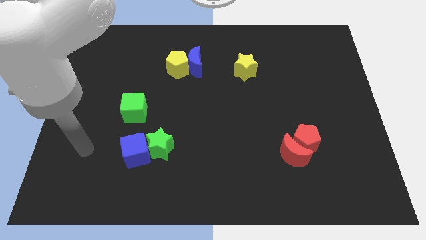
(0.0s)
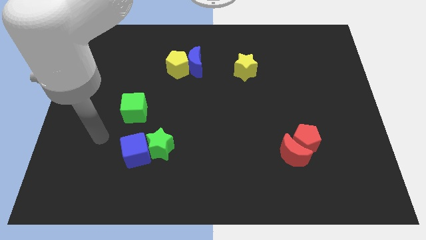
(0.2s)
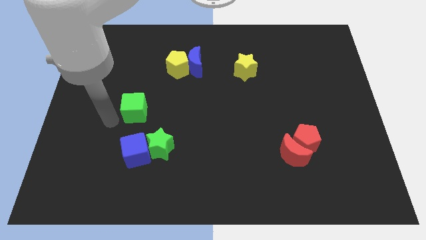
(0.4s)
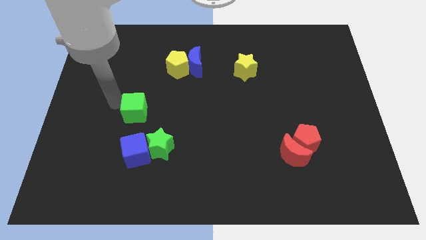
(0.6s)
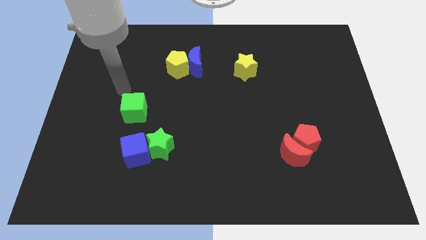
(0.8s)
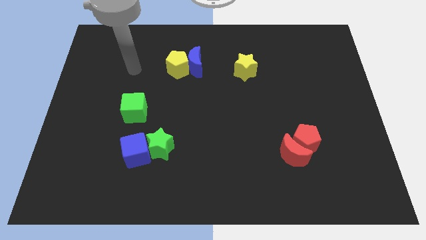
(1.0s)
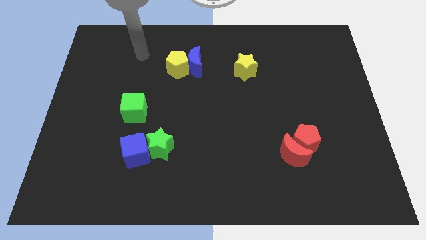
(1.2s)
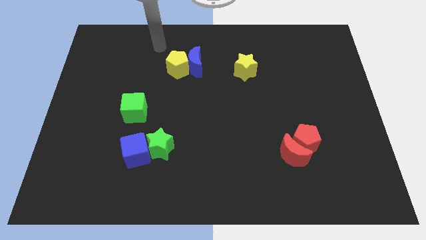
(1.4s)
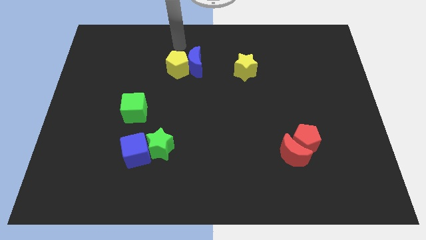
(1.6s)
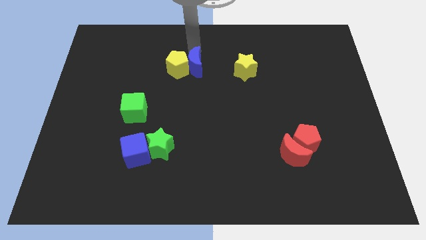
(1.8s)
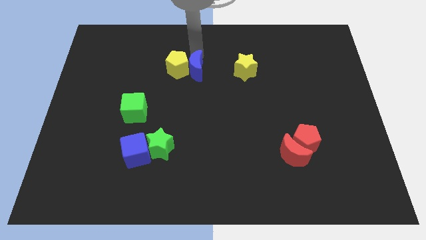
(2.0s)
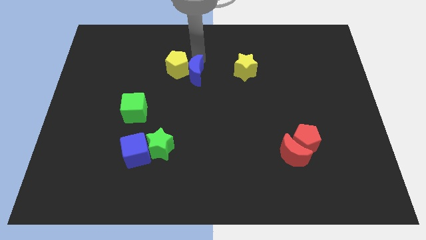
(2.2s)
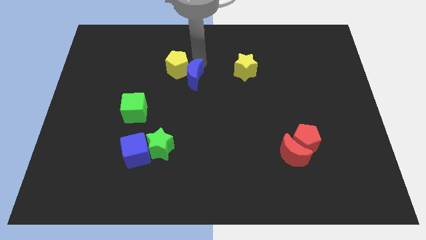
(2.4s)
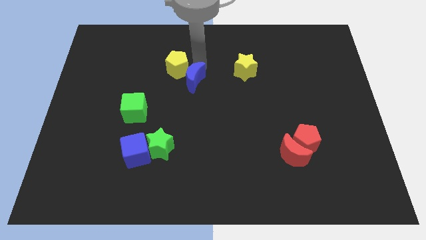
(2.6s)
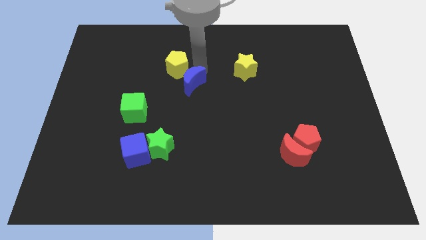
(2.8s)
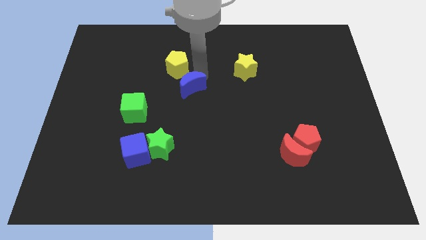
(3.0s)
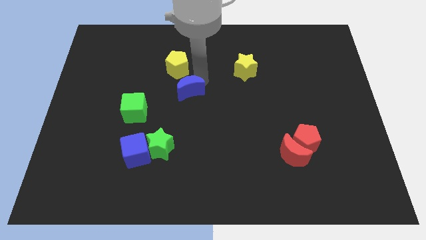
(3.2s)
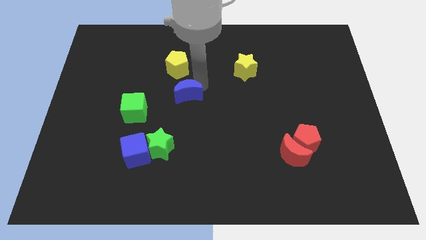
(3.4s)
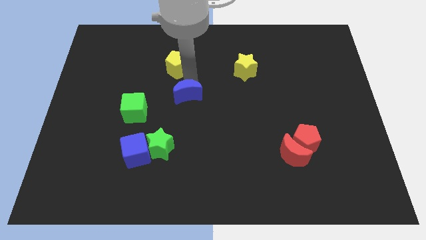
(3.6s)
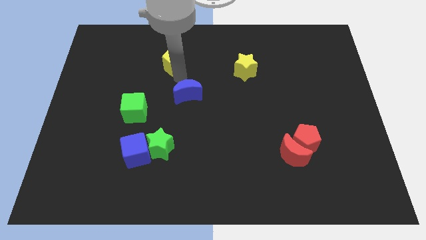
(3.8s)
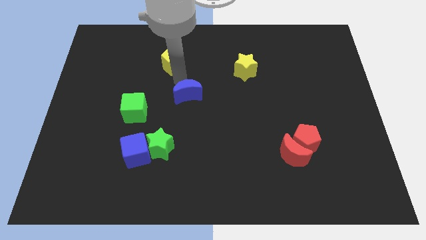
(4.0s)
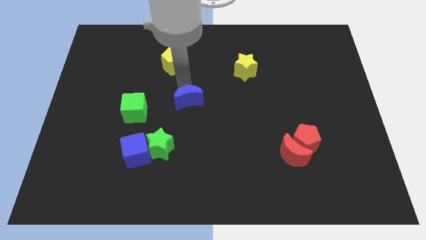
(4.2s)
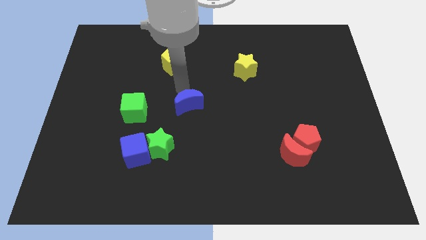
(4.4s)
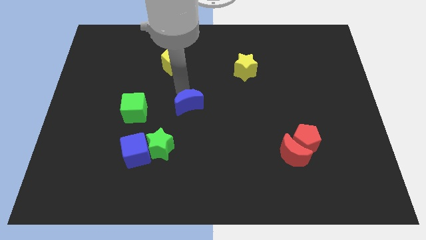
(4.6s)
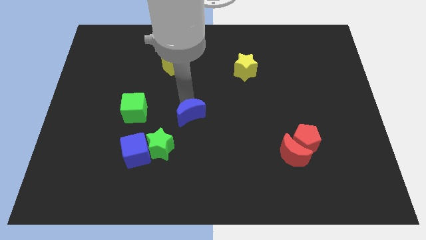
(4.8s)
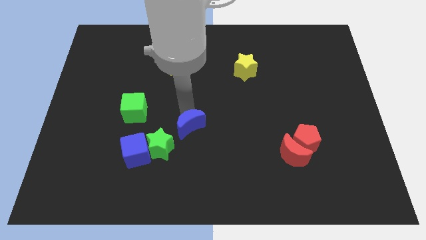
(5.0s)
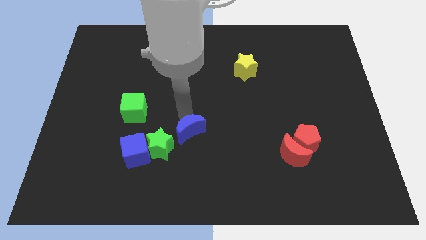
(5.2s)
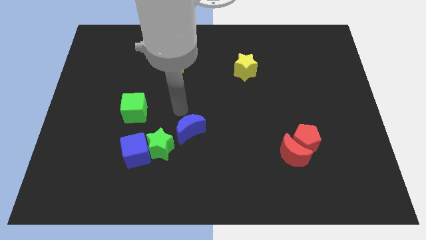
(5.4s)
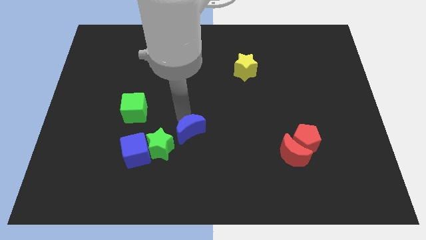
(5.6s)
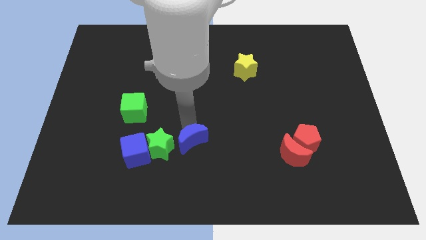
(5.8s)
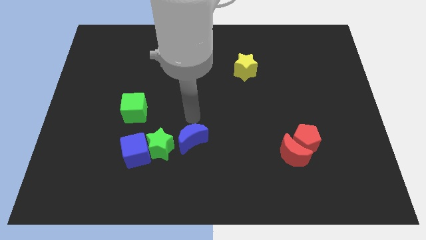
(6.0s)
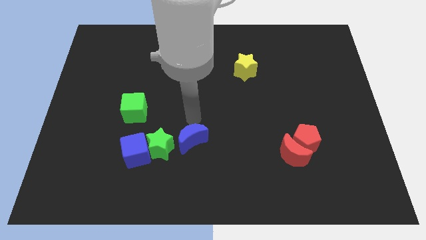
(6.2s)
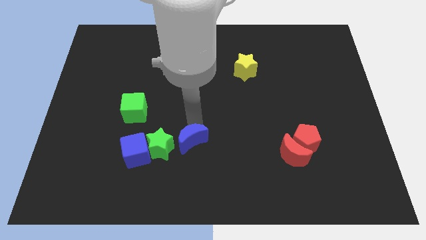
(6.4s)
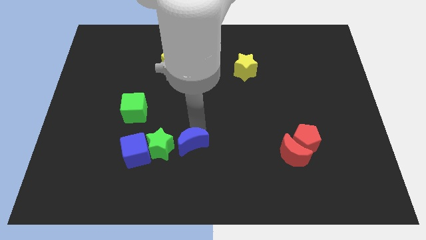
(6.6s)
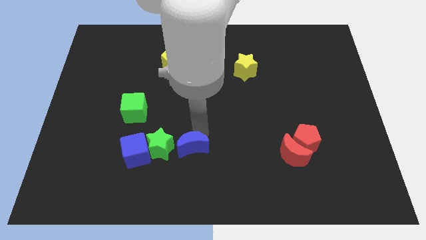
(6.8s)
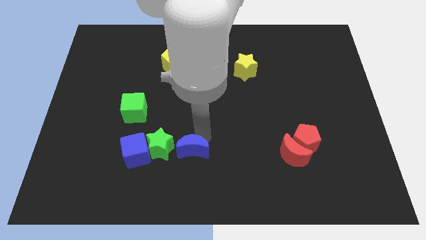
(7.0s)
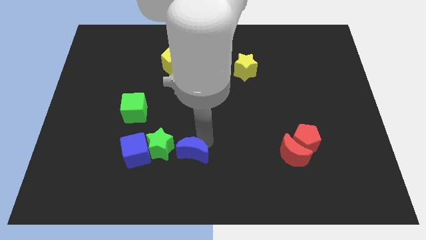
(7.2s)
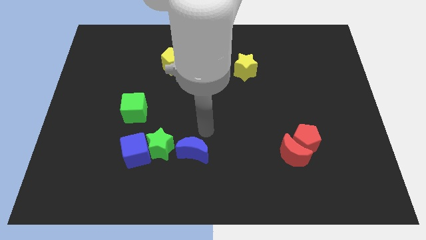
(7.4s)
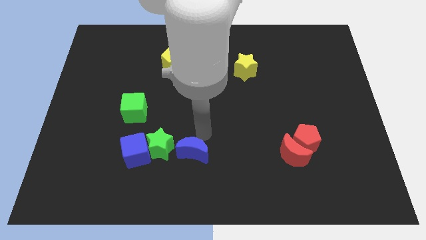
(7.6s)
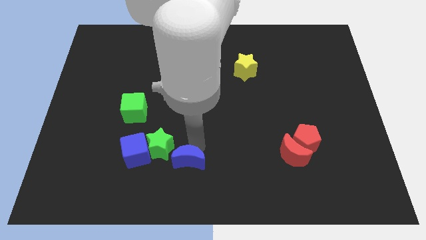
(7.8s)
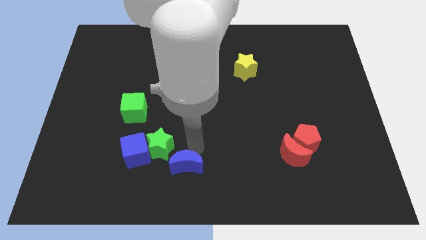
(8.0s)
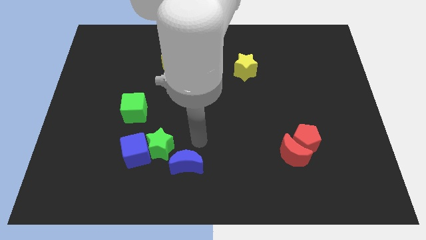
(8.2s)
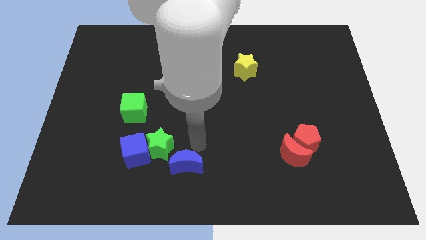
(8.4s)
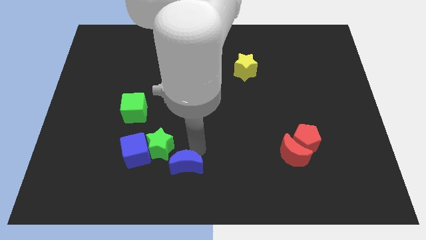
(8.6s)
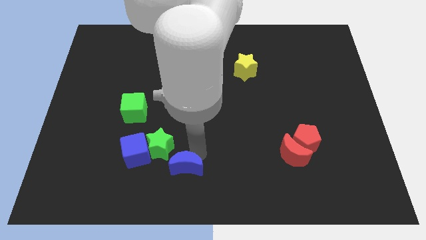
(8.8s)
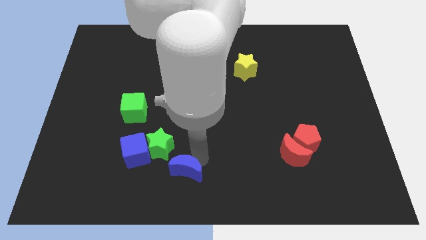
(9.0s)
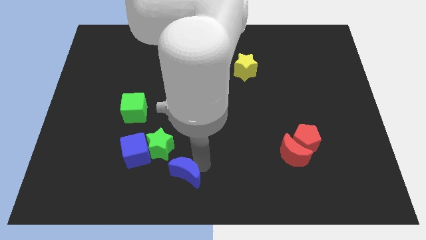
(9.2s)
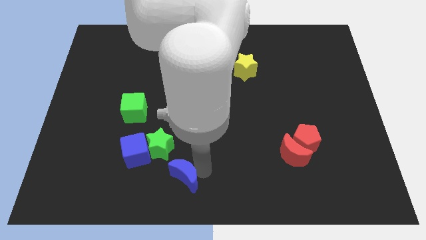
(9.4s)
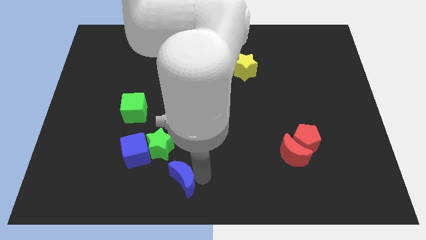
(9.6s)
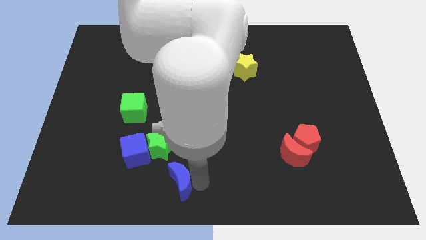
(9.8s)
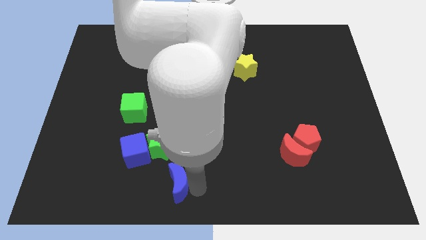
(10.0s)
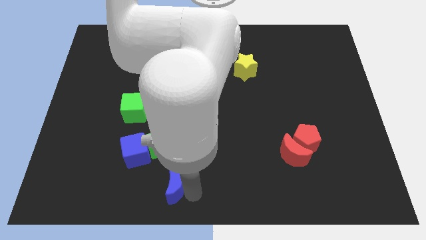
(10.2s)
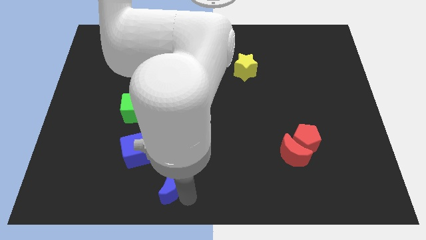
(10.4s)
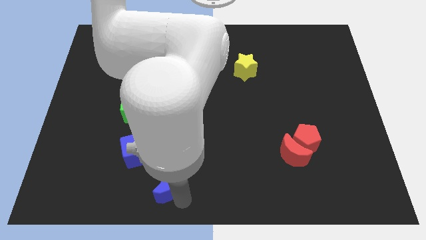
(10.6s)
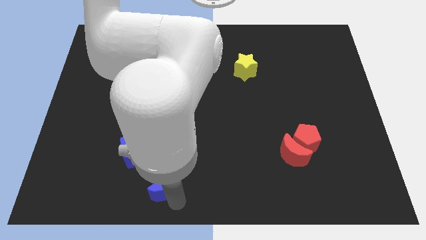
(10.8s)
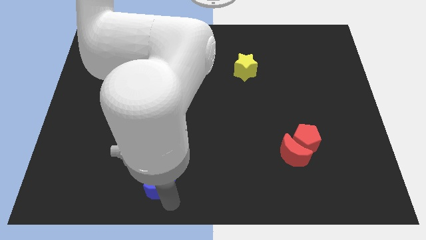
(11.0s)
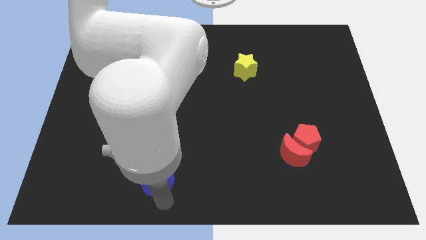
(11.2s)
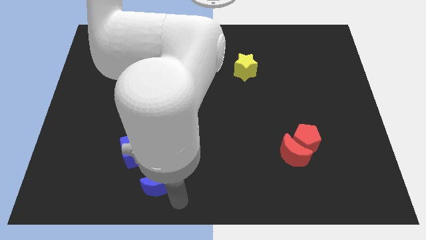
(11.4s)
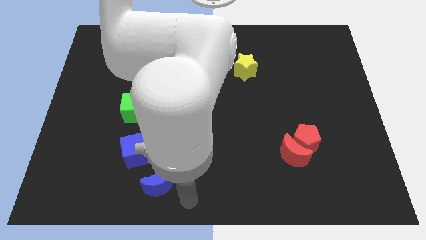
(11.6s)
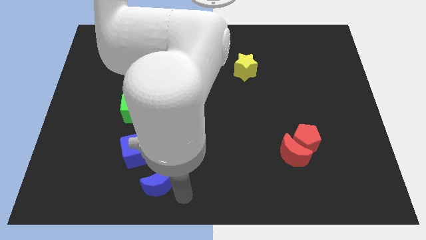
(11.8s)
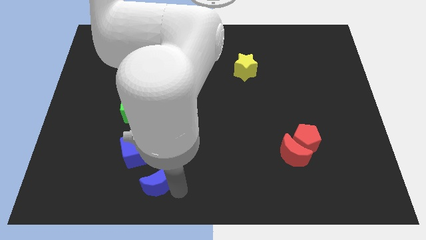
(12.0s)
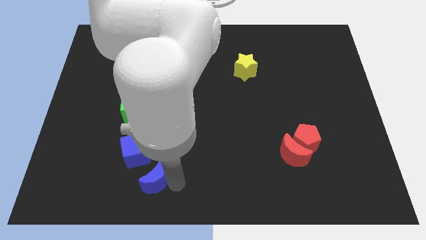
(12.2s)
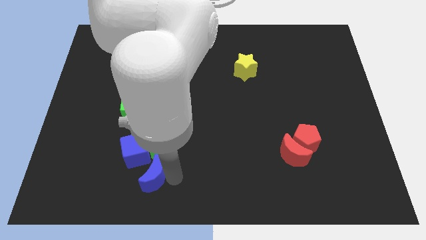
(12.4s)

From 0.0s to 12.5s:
move the blue moon to the bottom left side of the green star

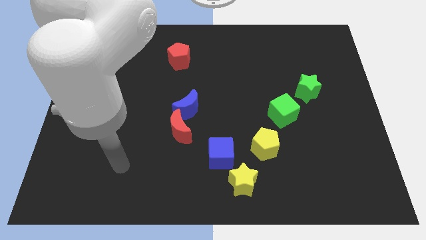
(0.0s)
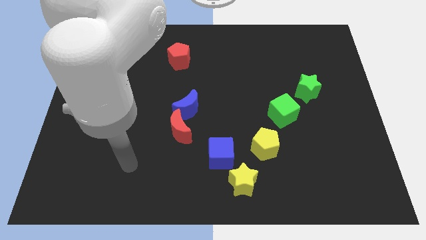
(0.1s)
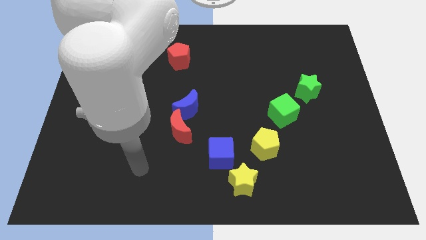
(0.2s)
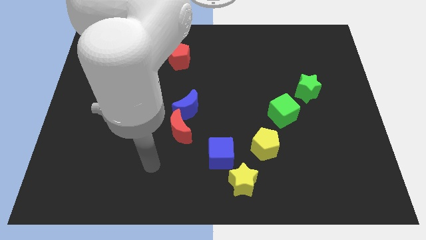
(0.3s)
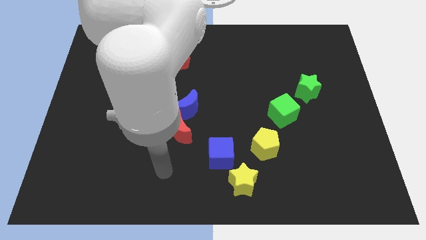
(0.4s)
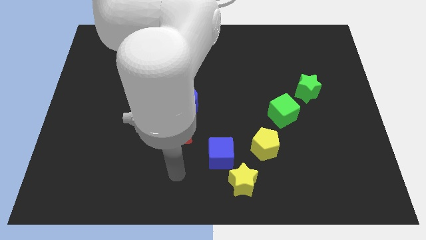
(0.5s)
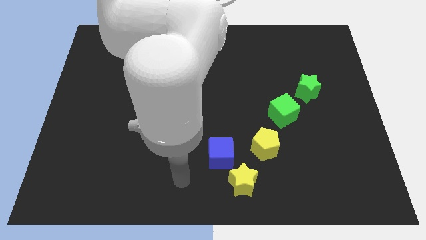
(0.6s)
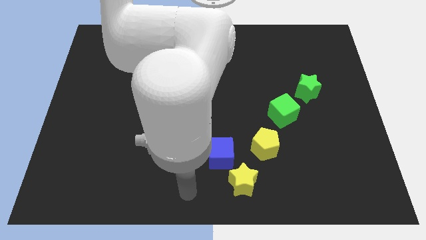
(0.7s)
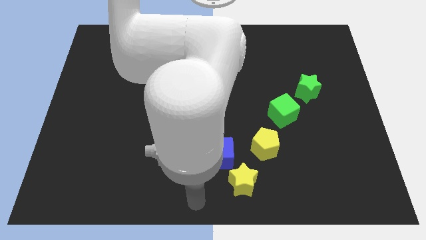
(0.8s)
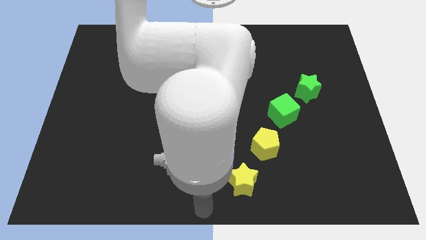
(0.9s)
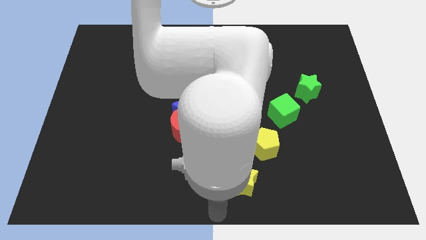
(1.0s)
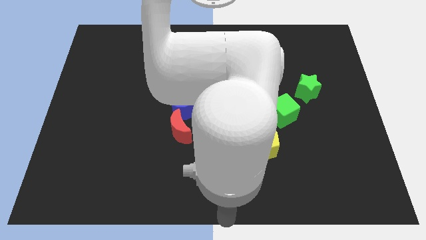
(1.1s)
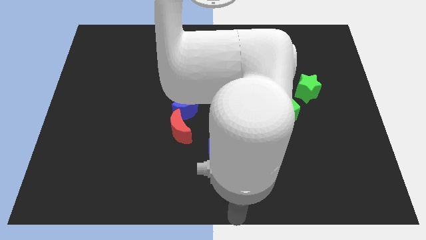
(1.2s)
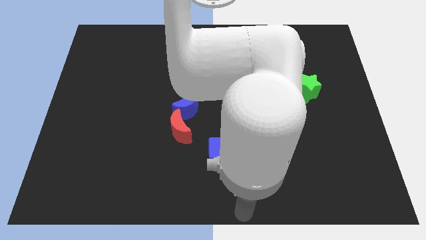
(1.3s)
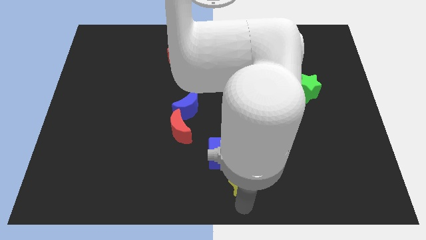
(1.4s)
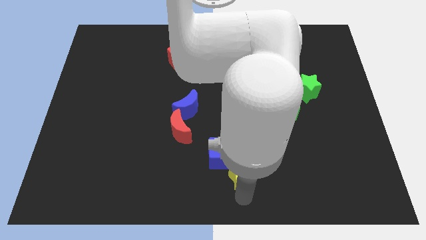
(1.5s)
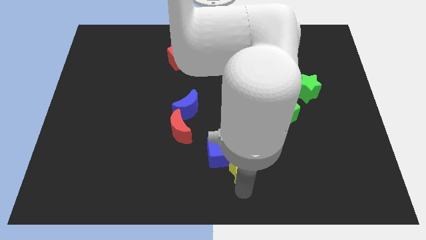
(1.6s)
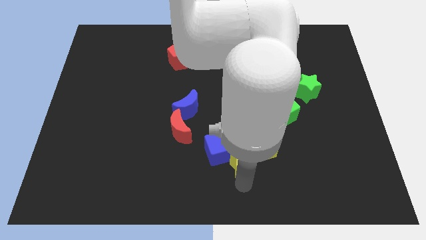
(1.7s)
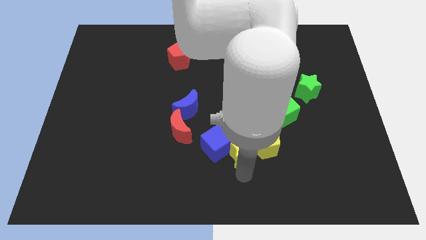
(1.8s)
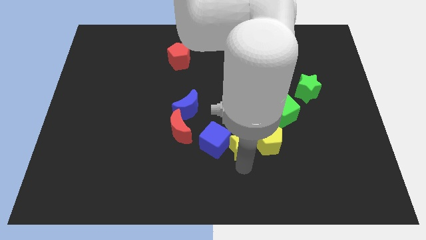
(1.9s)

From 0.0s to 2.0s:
put the yellow star to the top left side of the yellow pentagon
